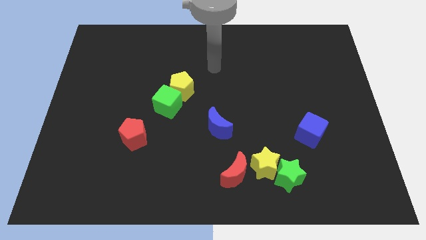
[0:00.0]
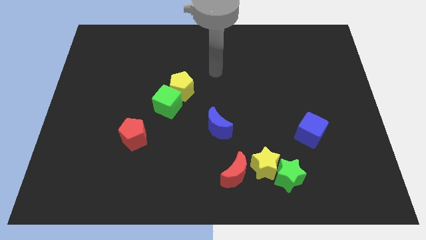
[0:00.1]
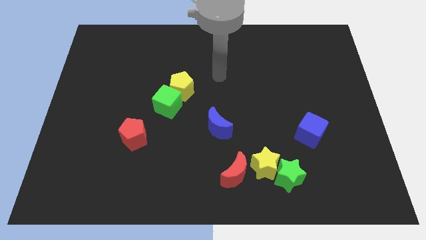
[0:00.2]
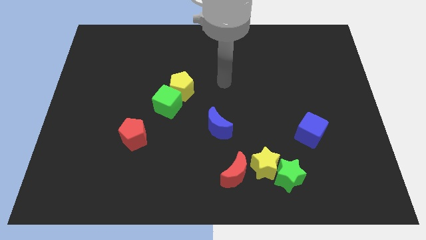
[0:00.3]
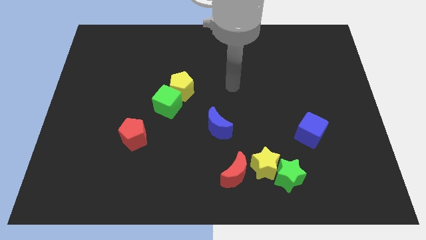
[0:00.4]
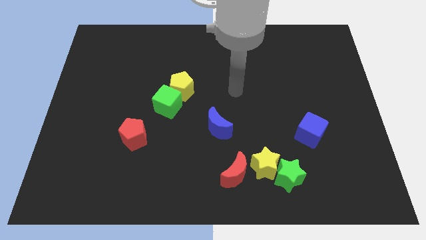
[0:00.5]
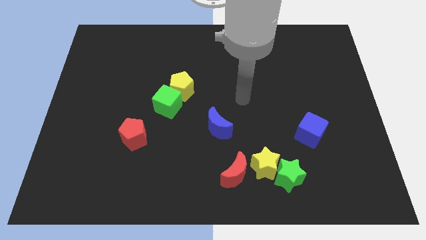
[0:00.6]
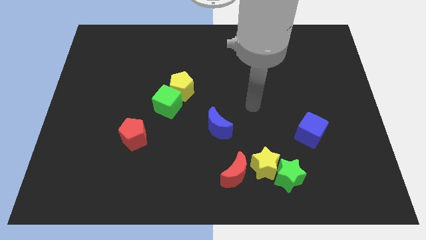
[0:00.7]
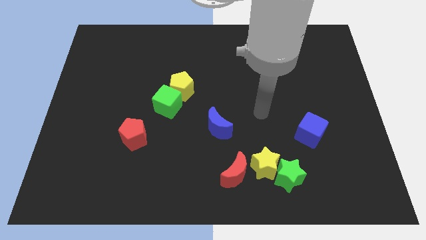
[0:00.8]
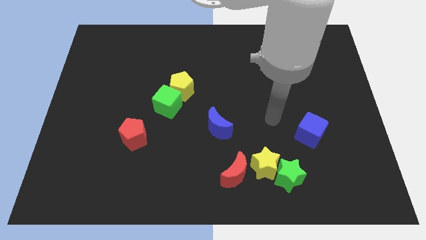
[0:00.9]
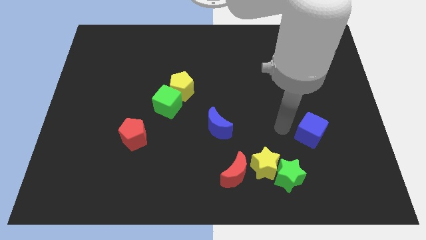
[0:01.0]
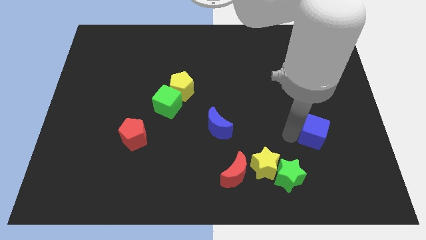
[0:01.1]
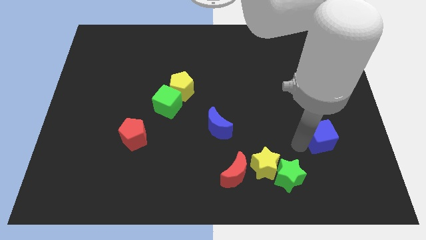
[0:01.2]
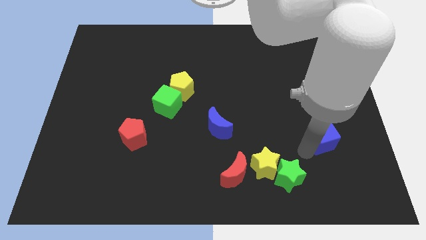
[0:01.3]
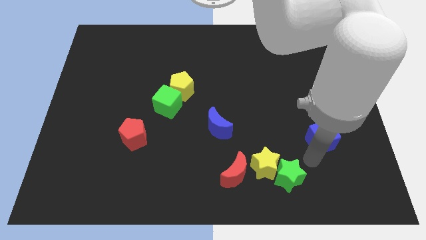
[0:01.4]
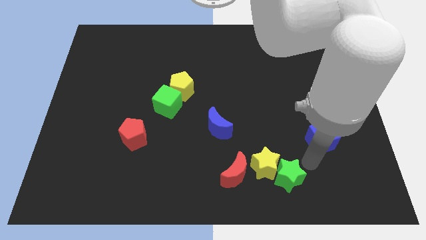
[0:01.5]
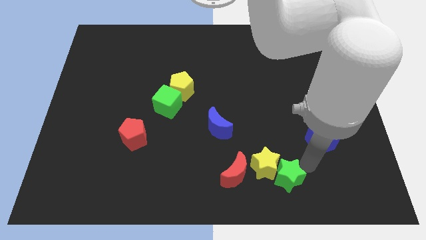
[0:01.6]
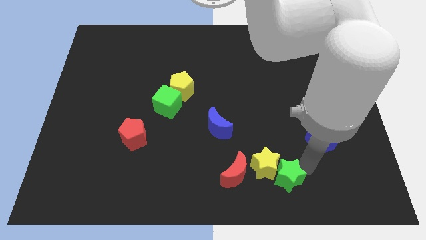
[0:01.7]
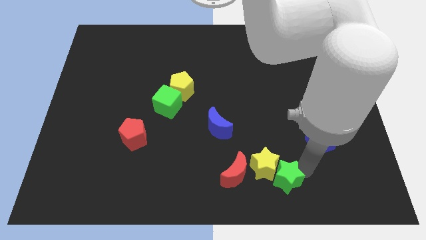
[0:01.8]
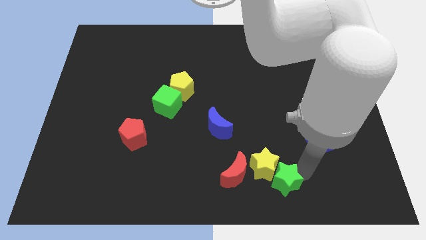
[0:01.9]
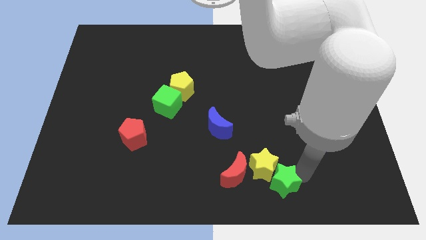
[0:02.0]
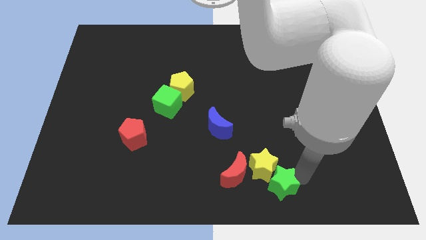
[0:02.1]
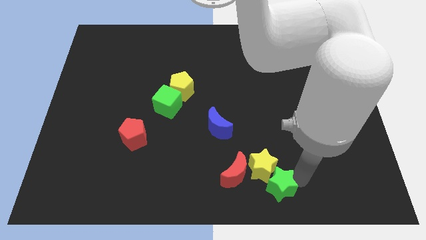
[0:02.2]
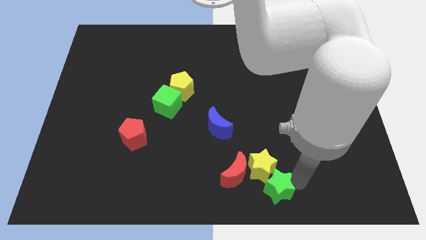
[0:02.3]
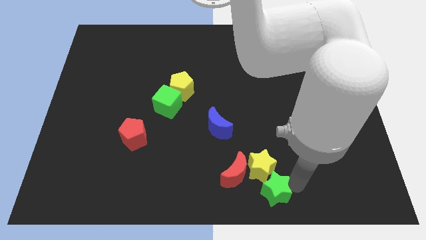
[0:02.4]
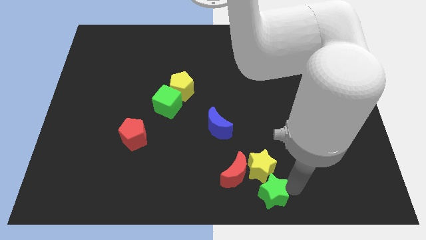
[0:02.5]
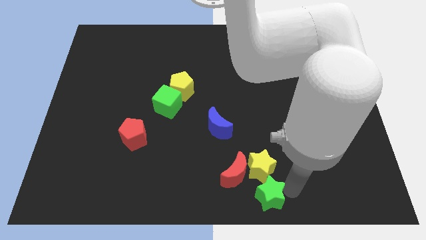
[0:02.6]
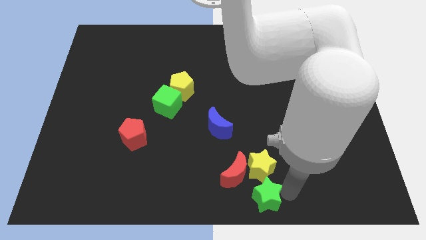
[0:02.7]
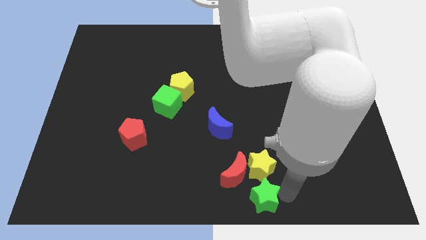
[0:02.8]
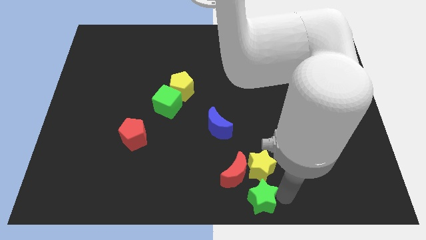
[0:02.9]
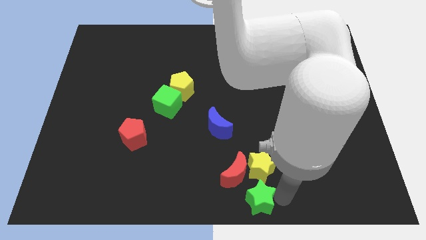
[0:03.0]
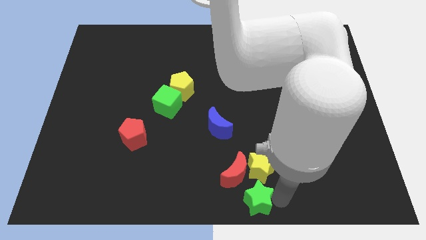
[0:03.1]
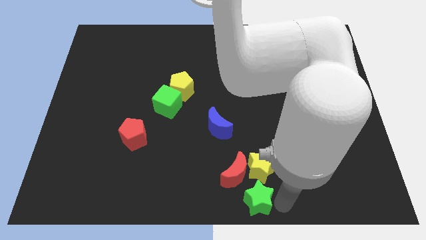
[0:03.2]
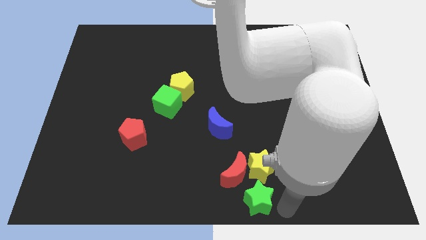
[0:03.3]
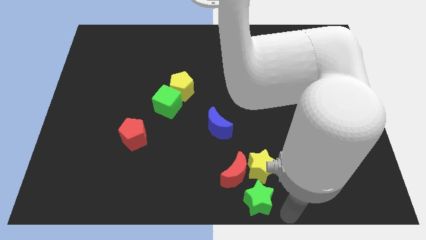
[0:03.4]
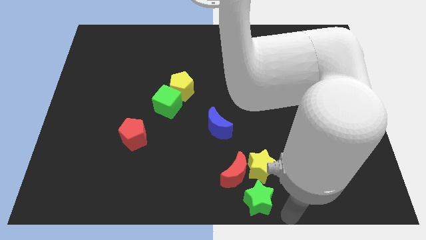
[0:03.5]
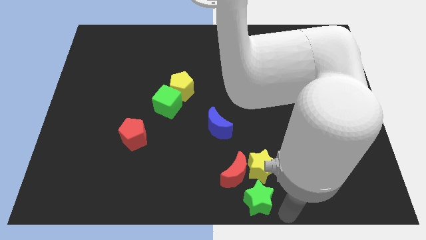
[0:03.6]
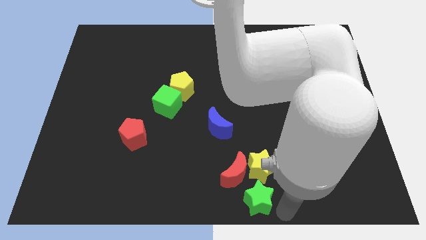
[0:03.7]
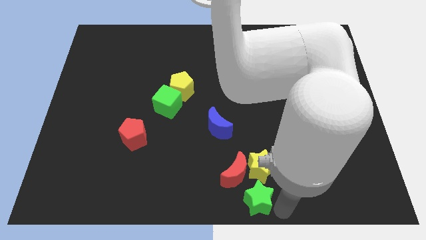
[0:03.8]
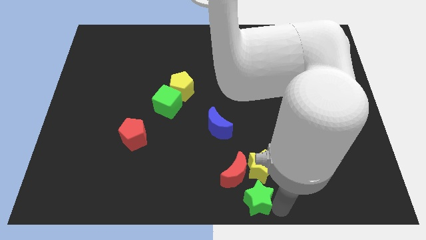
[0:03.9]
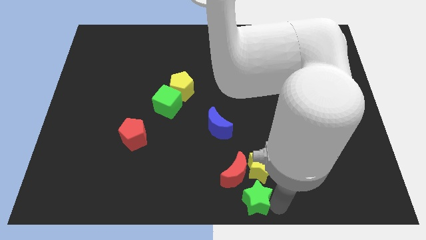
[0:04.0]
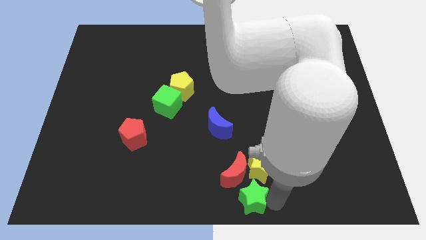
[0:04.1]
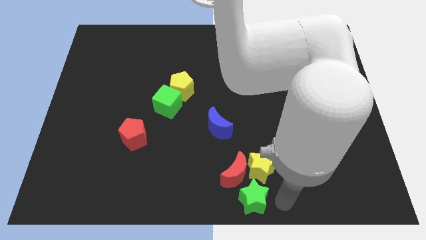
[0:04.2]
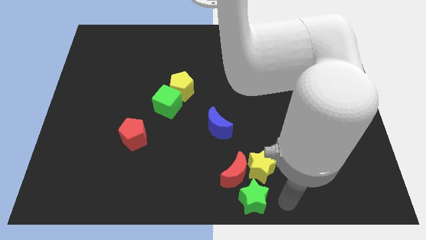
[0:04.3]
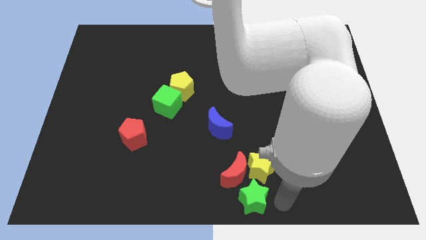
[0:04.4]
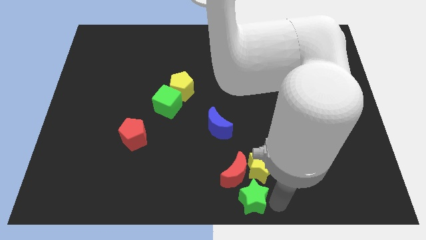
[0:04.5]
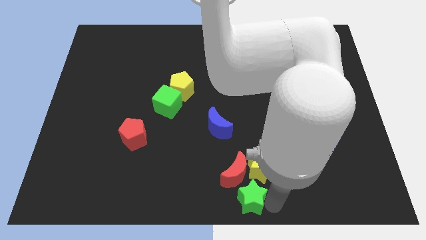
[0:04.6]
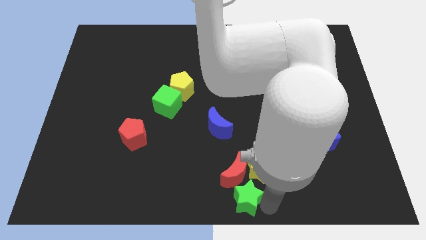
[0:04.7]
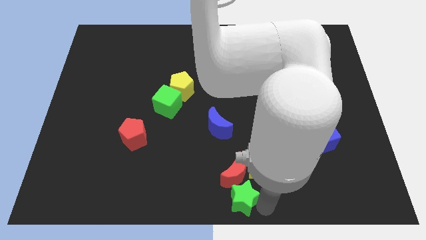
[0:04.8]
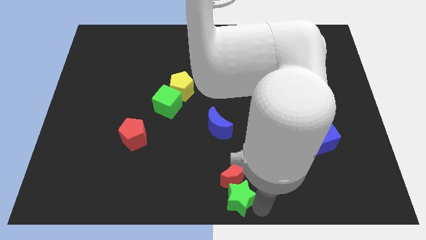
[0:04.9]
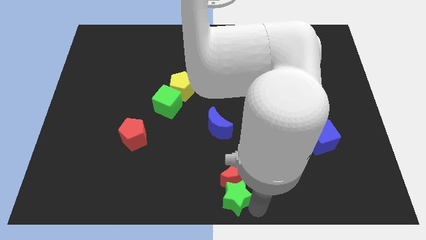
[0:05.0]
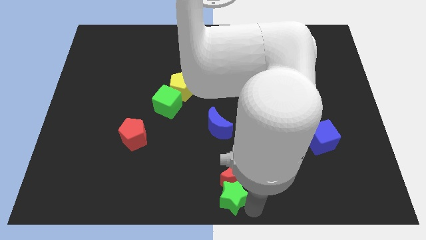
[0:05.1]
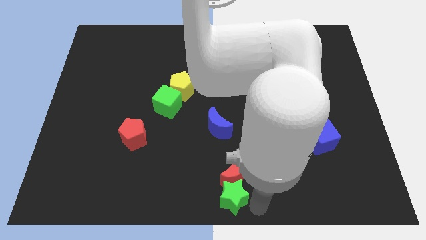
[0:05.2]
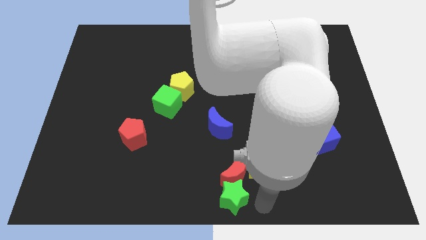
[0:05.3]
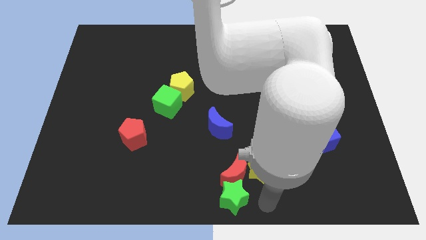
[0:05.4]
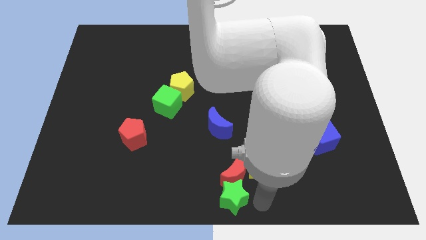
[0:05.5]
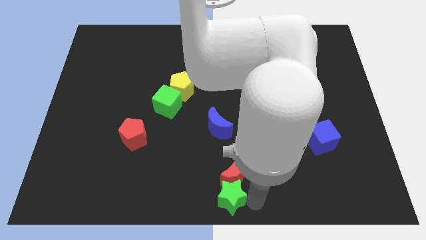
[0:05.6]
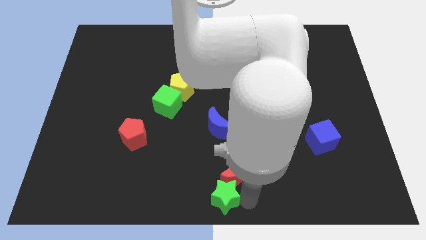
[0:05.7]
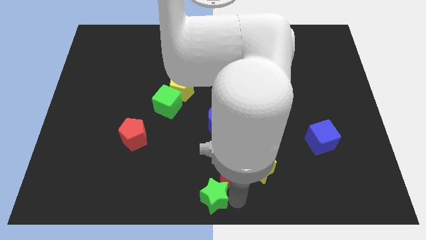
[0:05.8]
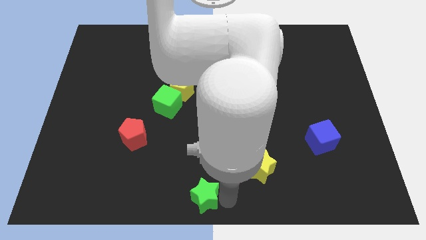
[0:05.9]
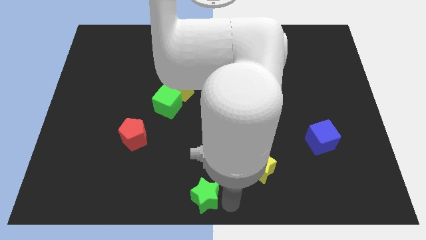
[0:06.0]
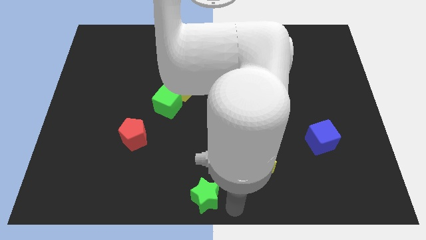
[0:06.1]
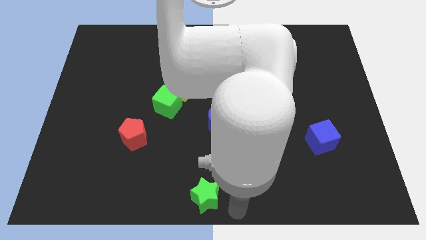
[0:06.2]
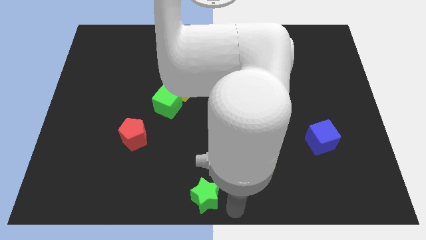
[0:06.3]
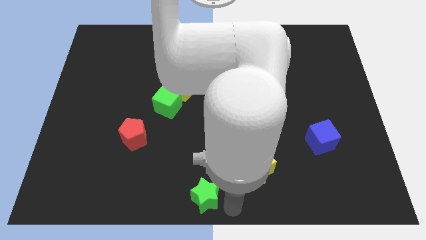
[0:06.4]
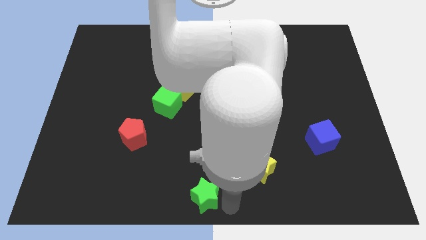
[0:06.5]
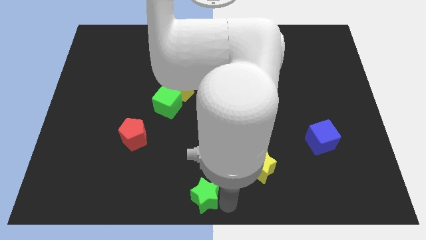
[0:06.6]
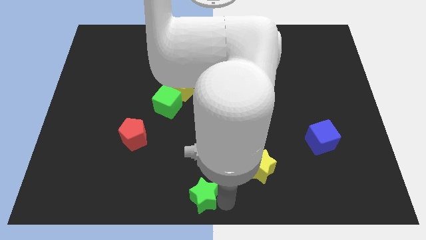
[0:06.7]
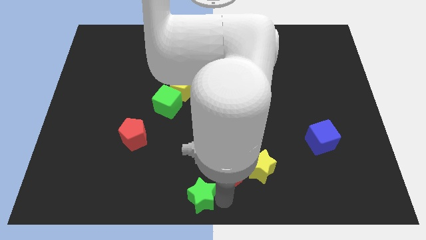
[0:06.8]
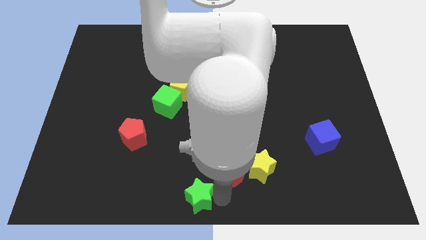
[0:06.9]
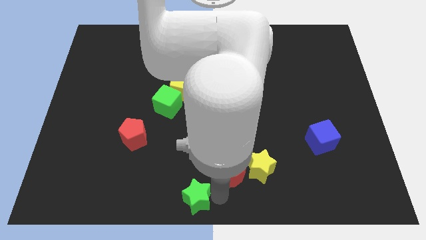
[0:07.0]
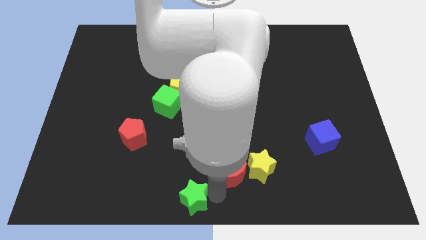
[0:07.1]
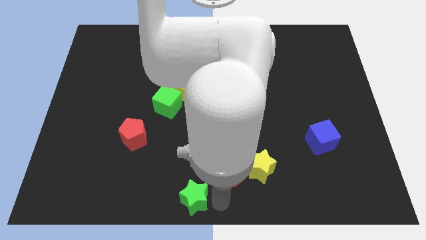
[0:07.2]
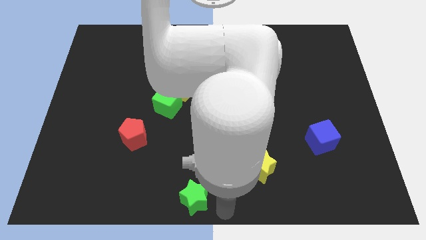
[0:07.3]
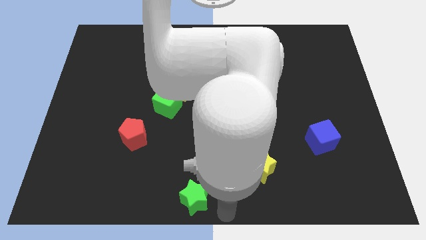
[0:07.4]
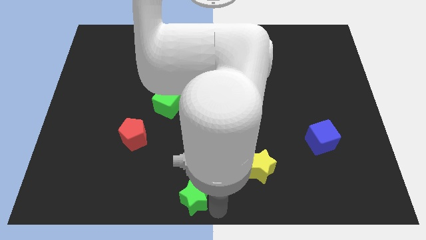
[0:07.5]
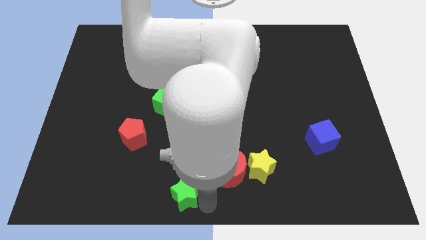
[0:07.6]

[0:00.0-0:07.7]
push the green star to the left

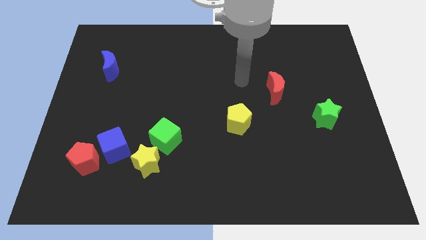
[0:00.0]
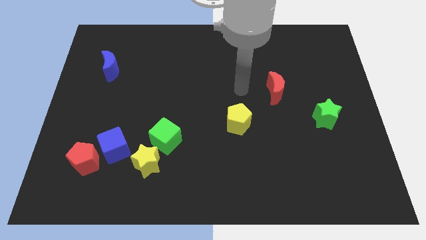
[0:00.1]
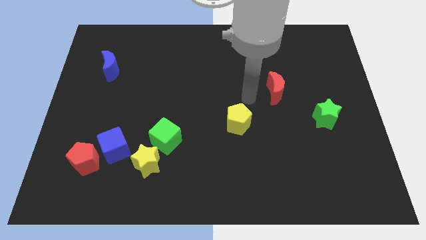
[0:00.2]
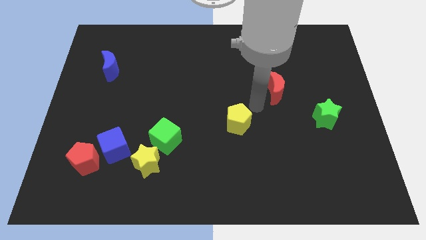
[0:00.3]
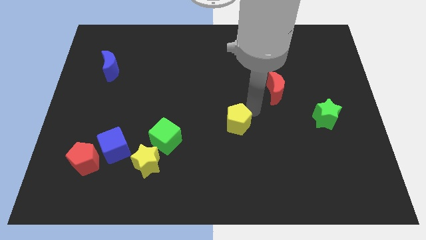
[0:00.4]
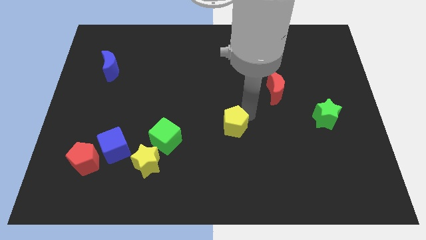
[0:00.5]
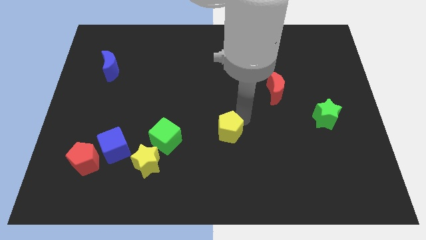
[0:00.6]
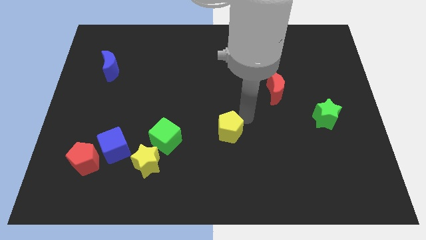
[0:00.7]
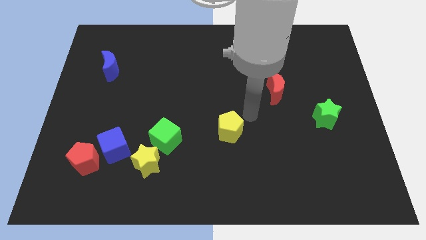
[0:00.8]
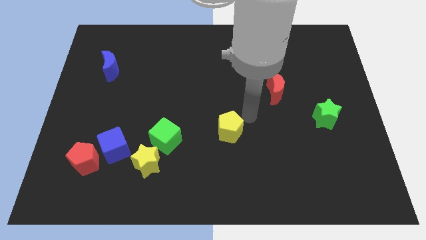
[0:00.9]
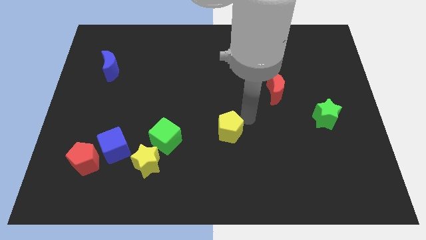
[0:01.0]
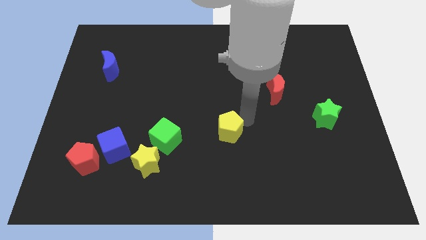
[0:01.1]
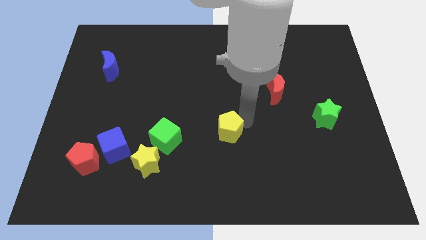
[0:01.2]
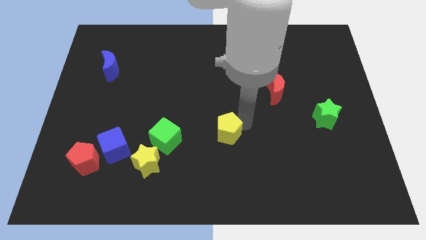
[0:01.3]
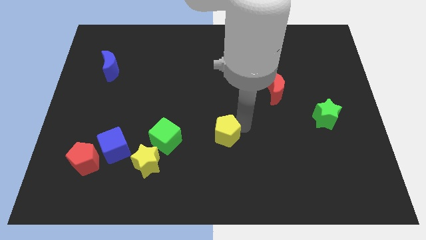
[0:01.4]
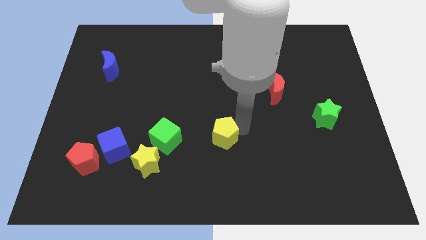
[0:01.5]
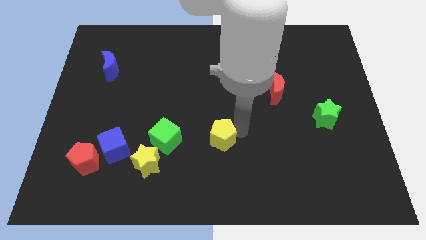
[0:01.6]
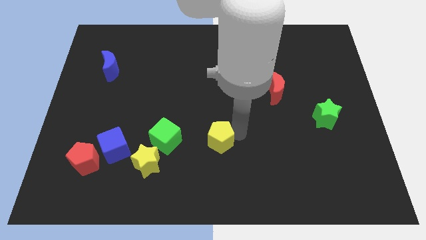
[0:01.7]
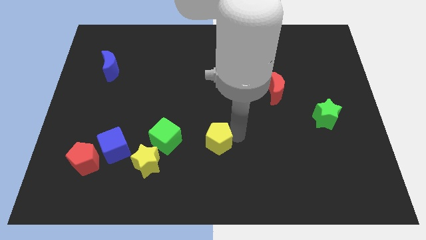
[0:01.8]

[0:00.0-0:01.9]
slide the yellow pentagon slightly down and left
